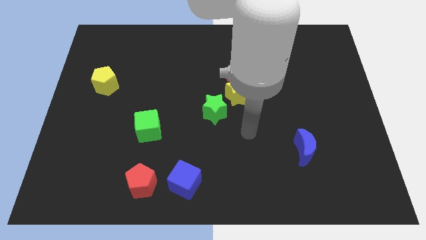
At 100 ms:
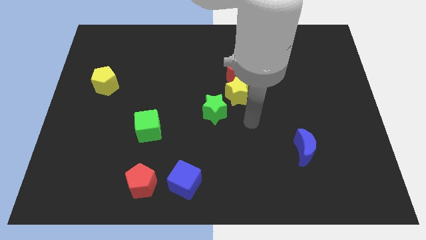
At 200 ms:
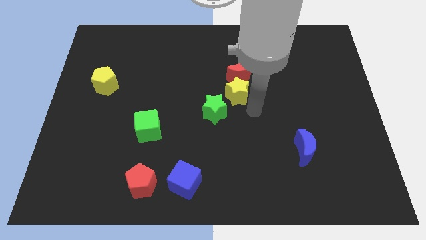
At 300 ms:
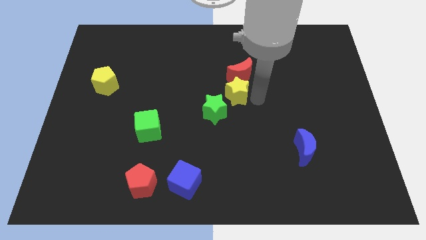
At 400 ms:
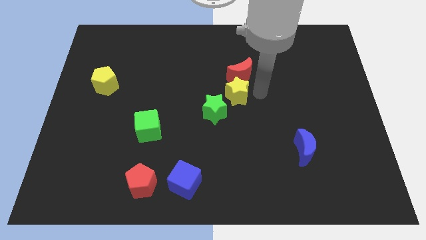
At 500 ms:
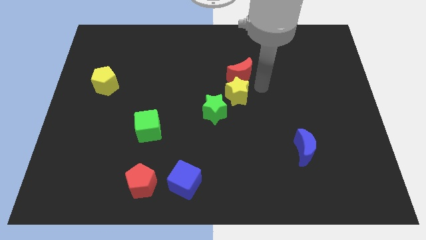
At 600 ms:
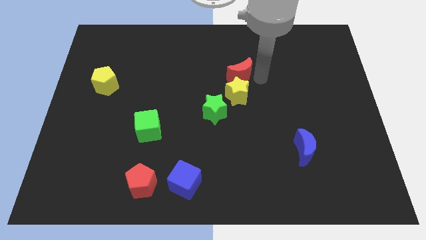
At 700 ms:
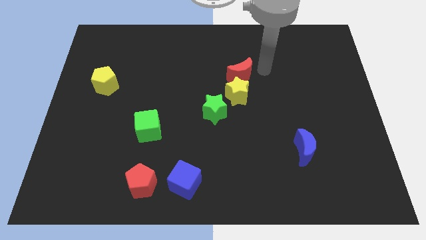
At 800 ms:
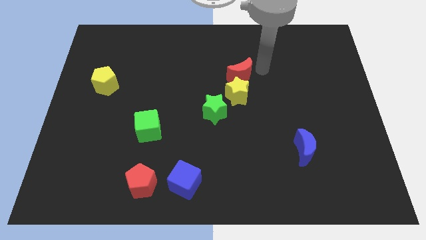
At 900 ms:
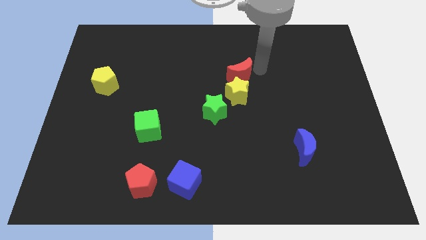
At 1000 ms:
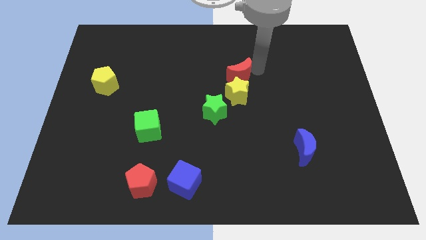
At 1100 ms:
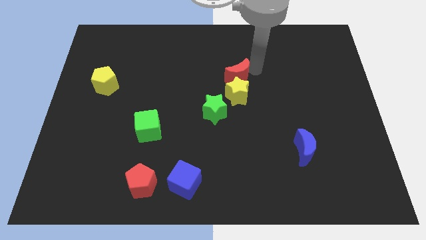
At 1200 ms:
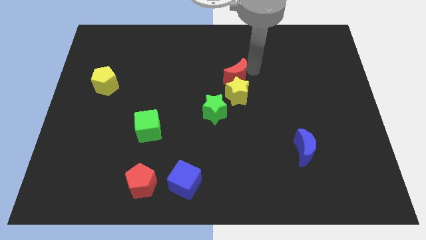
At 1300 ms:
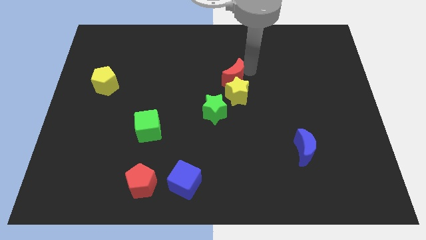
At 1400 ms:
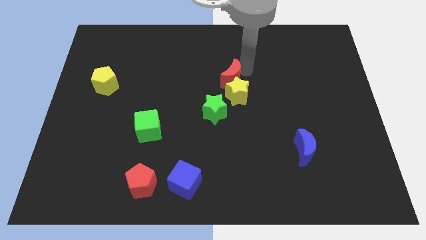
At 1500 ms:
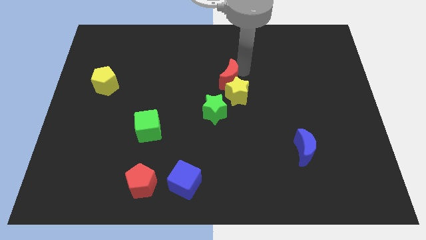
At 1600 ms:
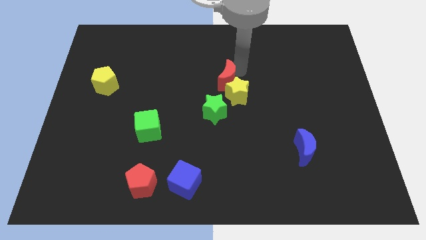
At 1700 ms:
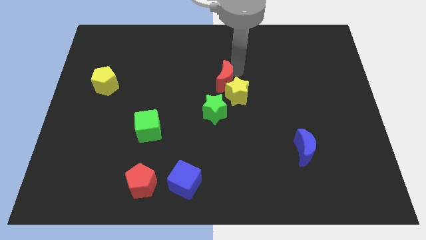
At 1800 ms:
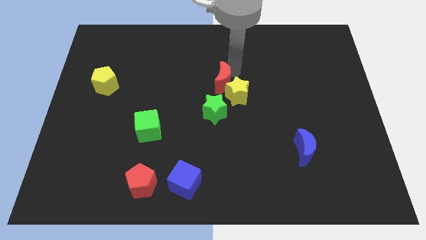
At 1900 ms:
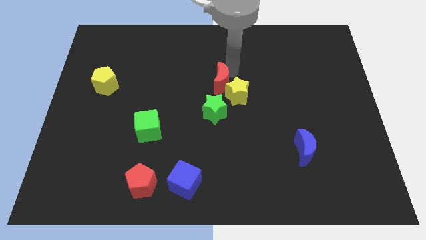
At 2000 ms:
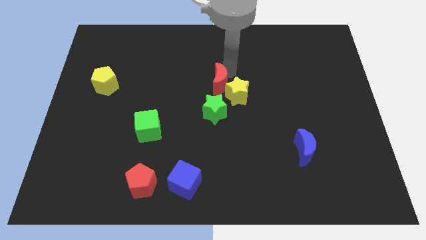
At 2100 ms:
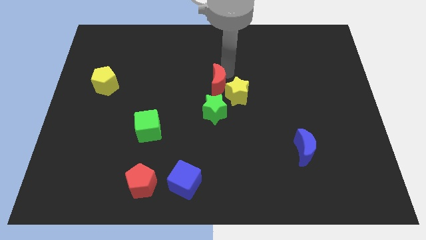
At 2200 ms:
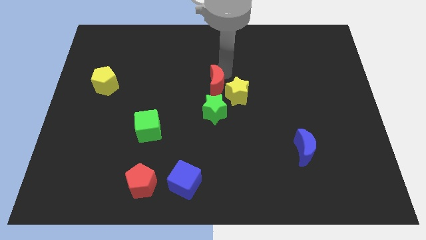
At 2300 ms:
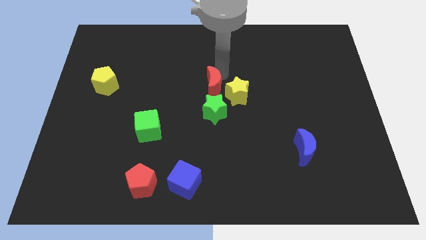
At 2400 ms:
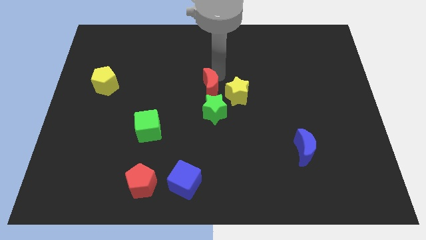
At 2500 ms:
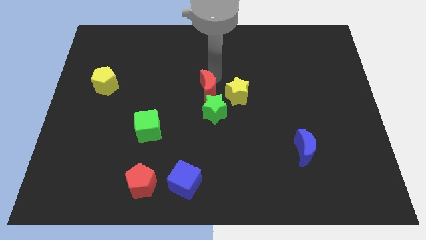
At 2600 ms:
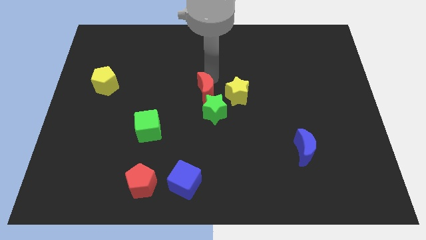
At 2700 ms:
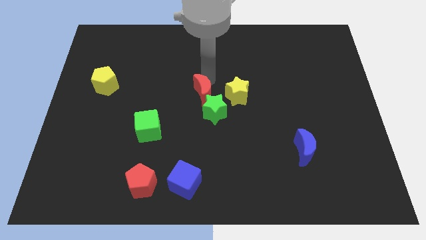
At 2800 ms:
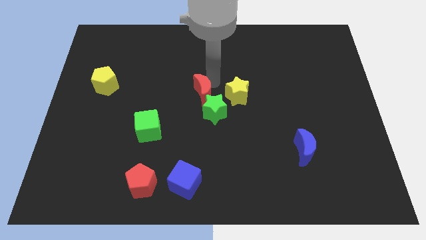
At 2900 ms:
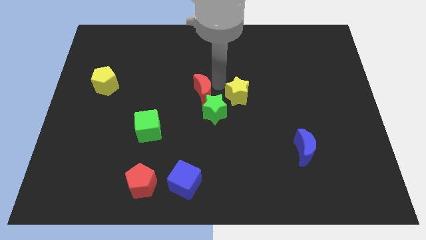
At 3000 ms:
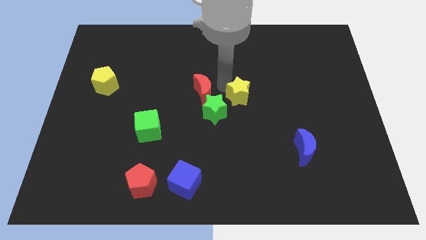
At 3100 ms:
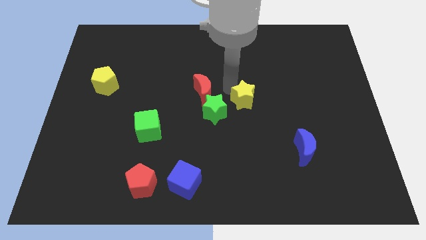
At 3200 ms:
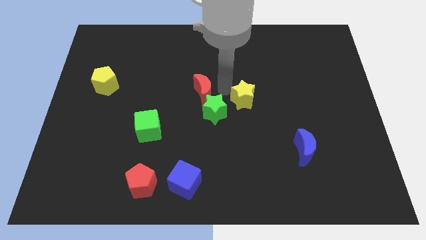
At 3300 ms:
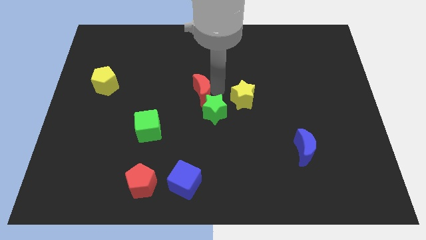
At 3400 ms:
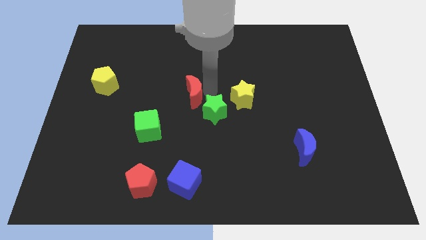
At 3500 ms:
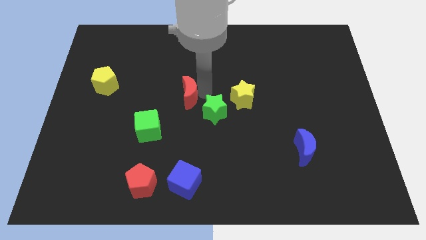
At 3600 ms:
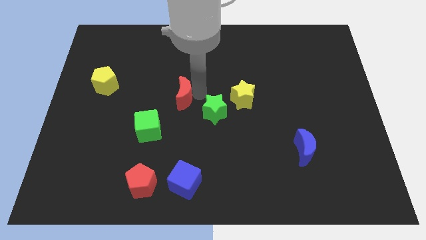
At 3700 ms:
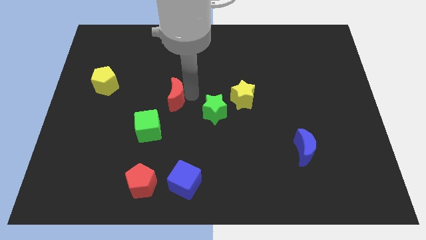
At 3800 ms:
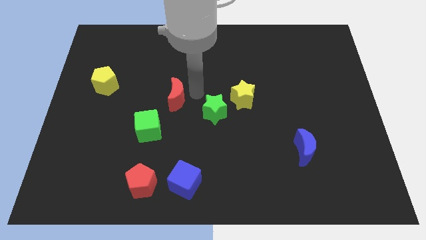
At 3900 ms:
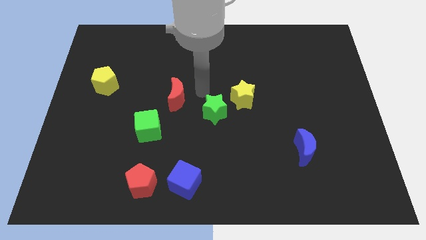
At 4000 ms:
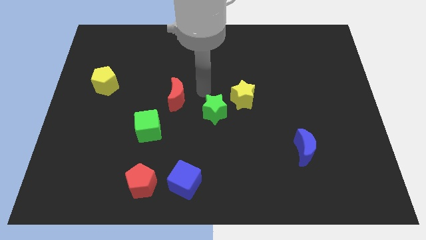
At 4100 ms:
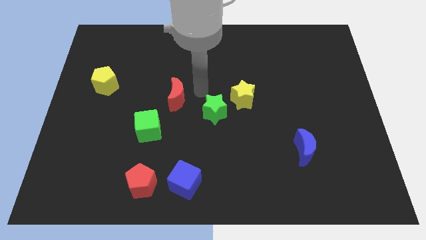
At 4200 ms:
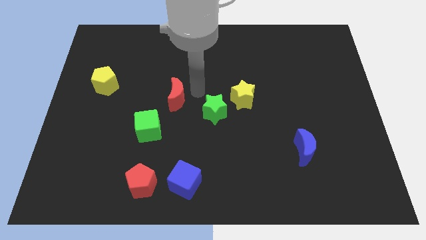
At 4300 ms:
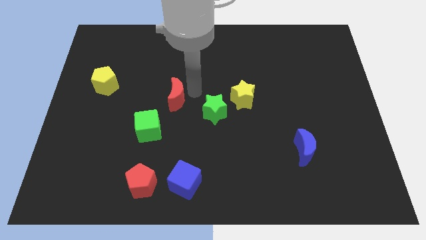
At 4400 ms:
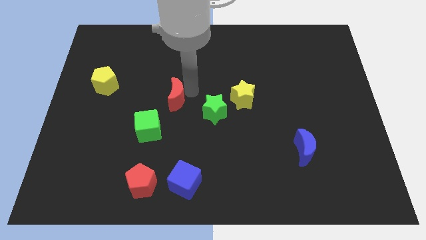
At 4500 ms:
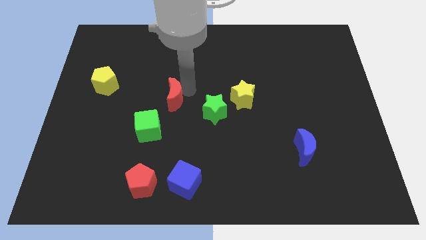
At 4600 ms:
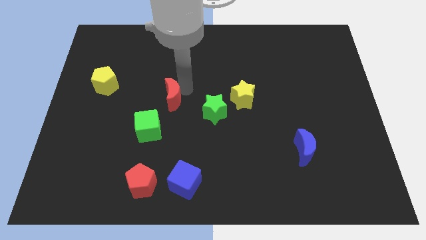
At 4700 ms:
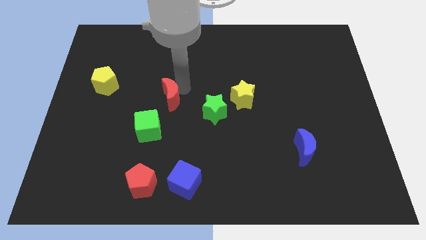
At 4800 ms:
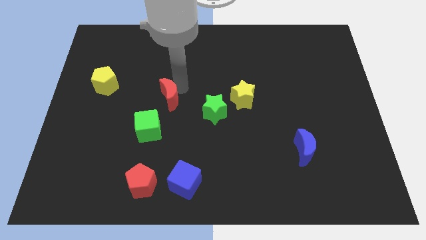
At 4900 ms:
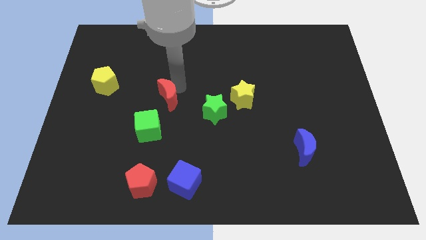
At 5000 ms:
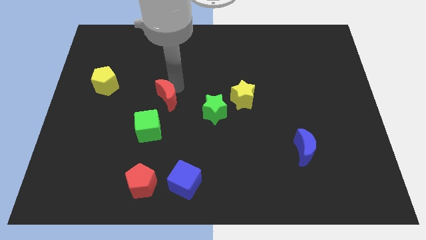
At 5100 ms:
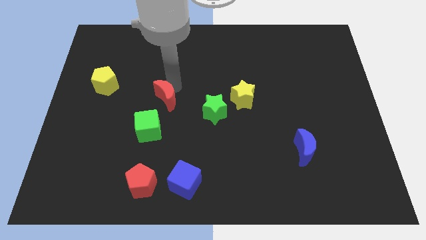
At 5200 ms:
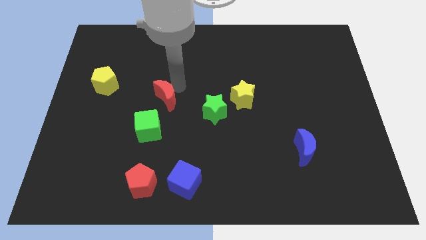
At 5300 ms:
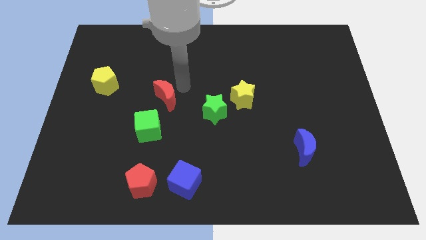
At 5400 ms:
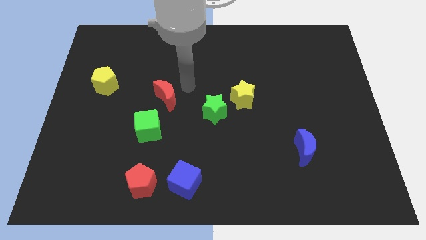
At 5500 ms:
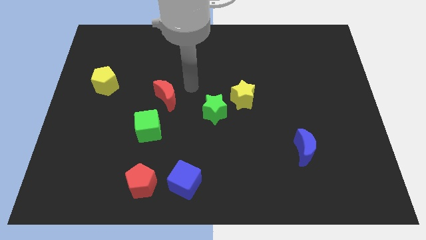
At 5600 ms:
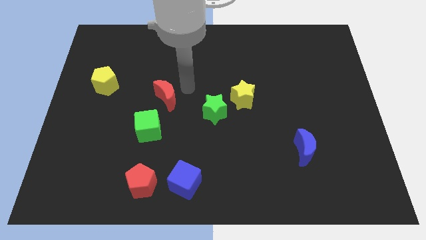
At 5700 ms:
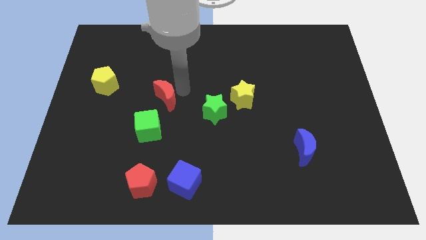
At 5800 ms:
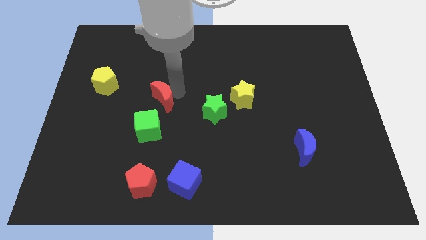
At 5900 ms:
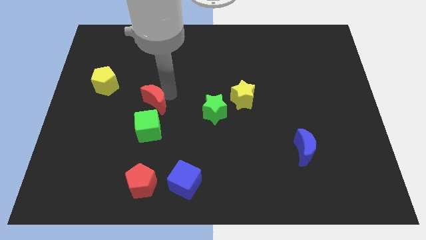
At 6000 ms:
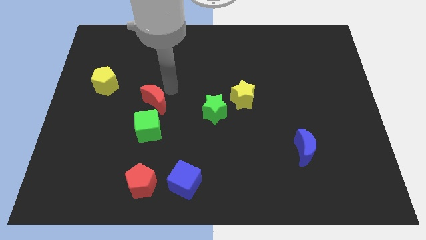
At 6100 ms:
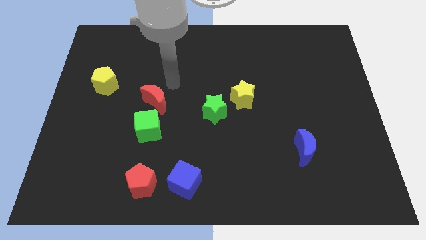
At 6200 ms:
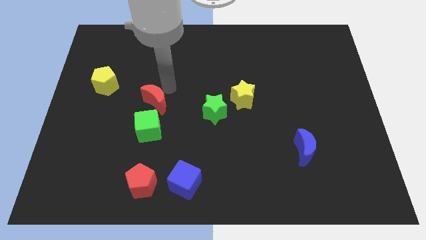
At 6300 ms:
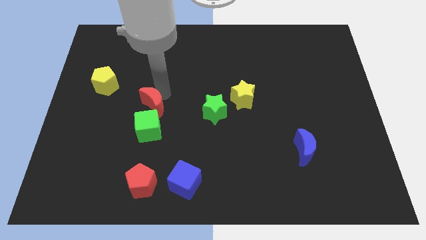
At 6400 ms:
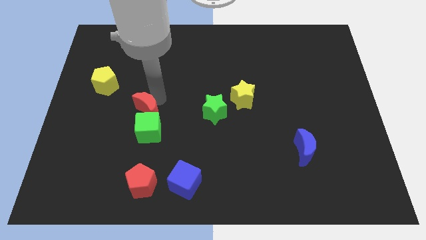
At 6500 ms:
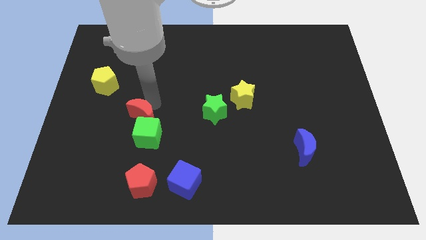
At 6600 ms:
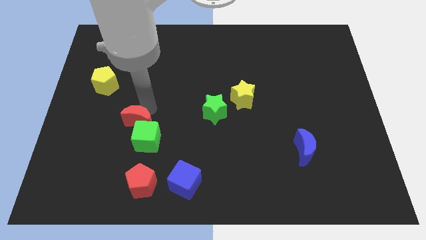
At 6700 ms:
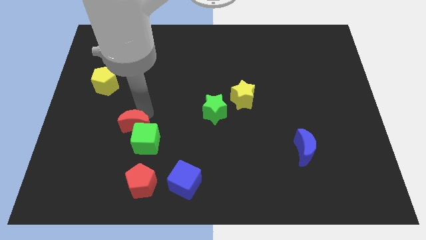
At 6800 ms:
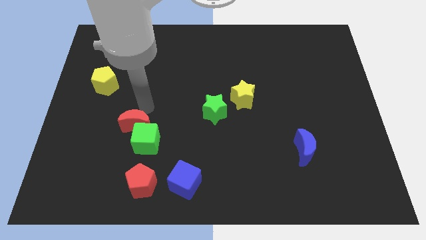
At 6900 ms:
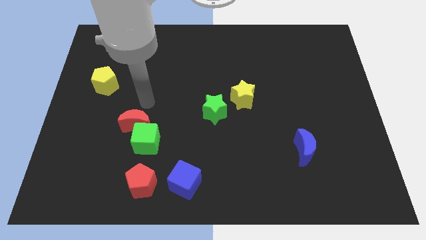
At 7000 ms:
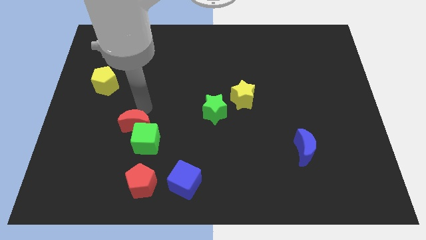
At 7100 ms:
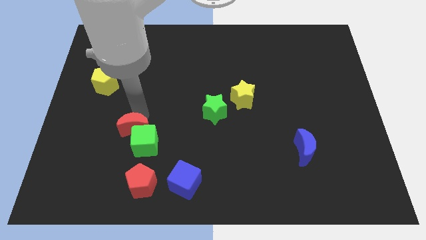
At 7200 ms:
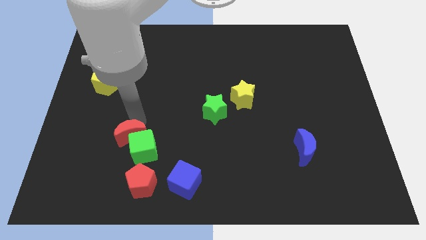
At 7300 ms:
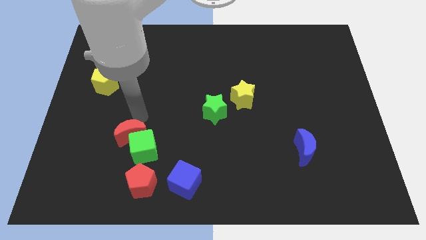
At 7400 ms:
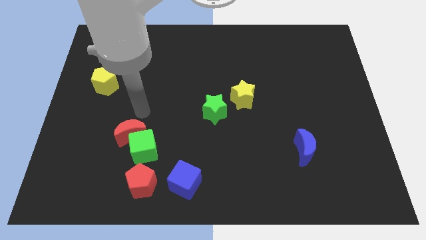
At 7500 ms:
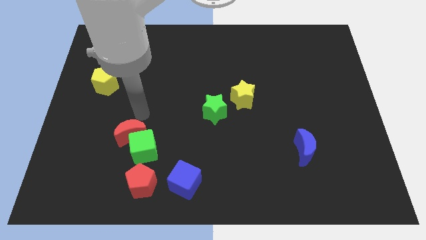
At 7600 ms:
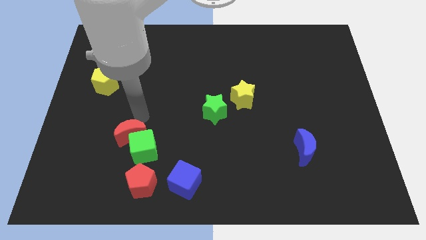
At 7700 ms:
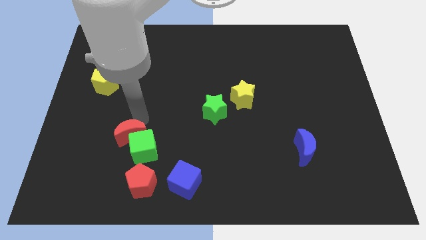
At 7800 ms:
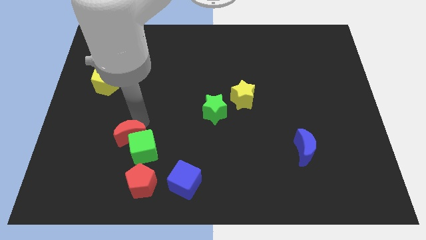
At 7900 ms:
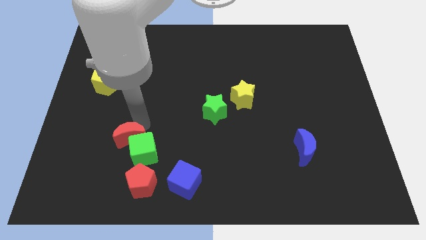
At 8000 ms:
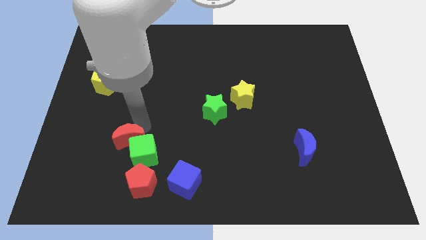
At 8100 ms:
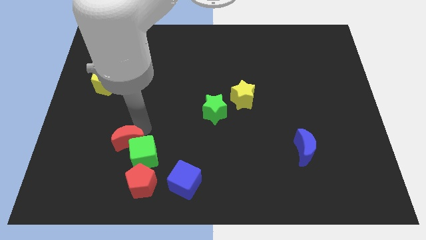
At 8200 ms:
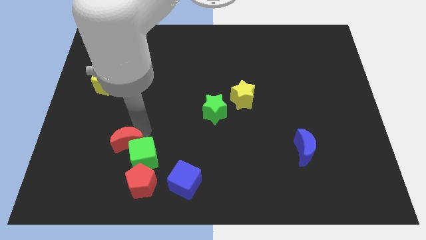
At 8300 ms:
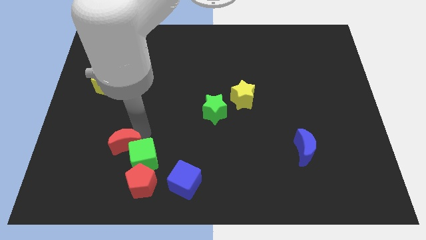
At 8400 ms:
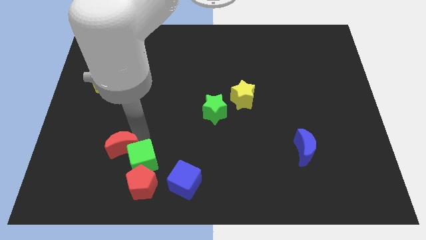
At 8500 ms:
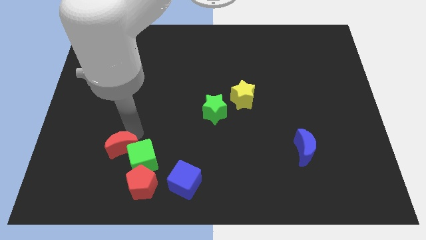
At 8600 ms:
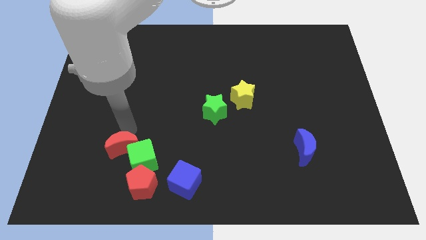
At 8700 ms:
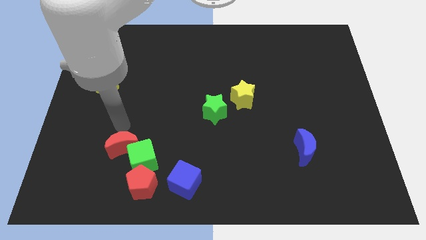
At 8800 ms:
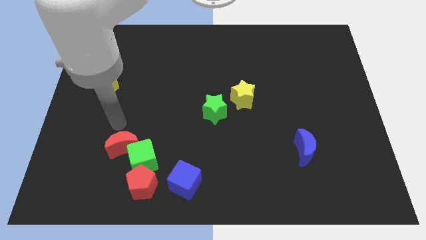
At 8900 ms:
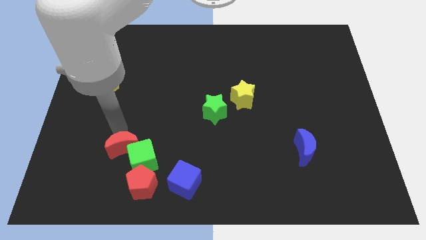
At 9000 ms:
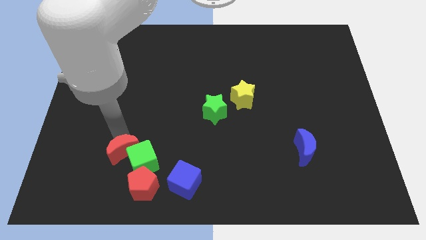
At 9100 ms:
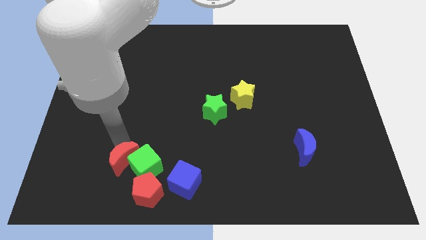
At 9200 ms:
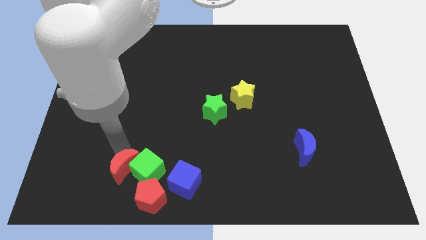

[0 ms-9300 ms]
put the red moon to the left side of the blue cube
